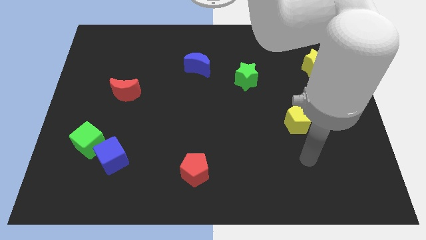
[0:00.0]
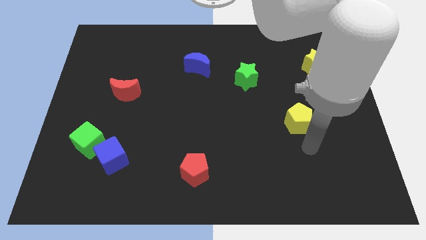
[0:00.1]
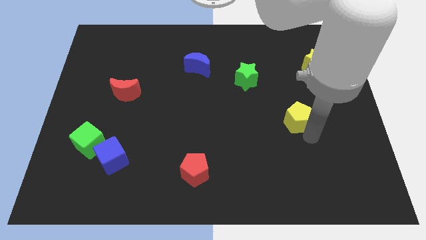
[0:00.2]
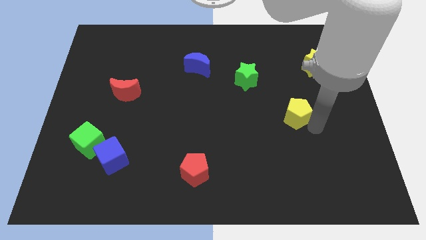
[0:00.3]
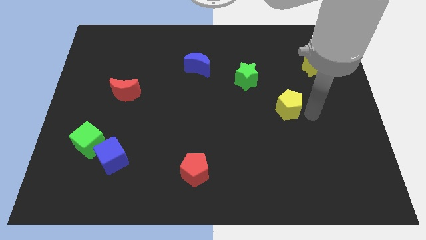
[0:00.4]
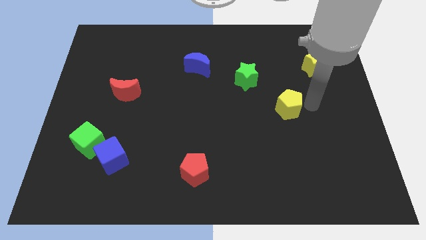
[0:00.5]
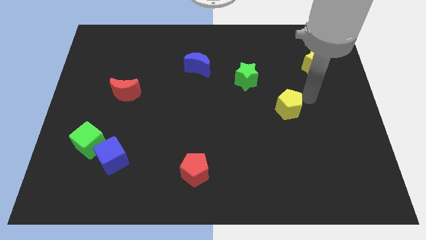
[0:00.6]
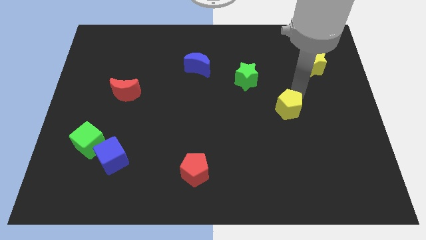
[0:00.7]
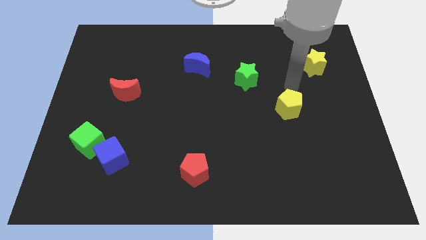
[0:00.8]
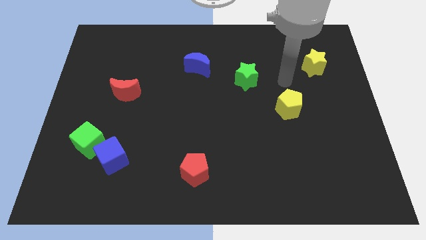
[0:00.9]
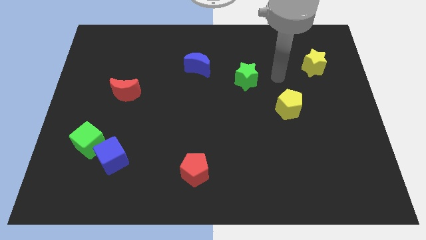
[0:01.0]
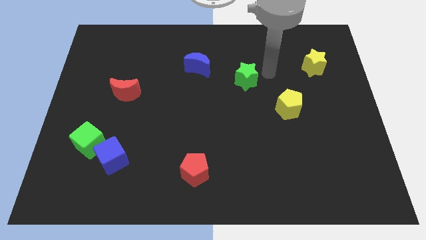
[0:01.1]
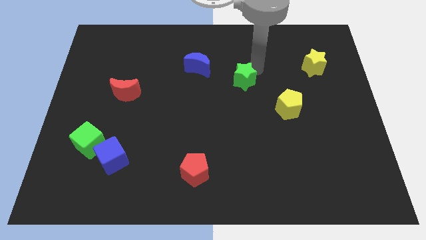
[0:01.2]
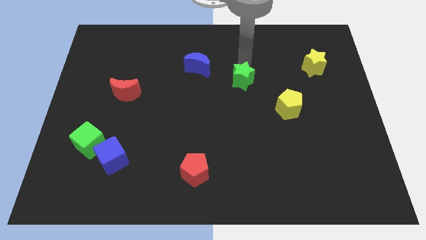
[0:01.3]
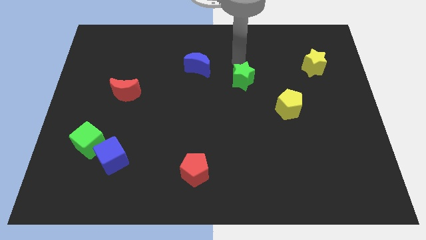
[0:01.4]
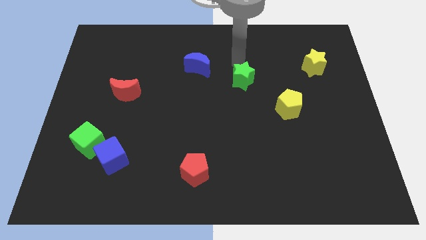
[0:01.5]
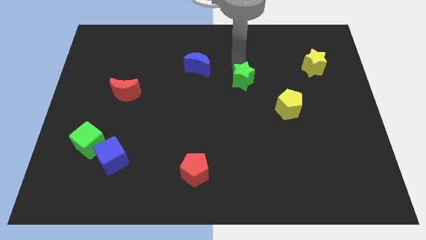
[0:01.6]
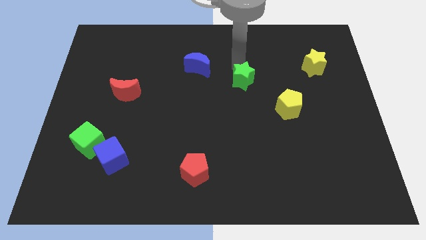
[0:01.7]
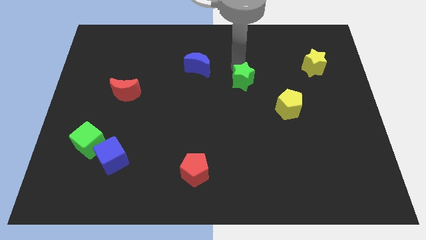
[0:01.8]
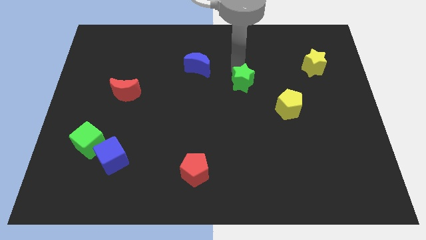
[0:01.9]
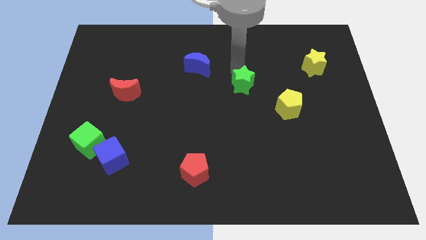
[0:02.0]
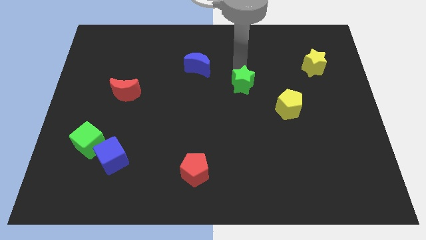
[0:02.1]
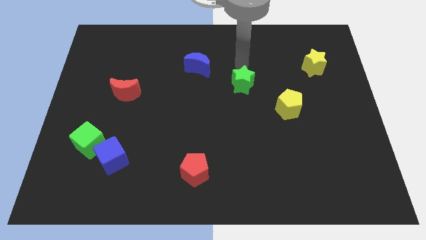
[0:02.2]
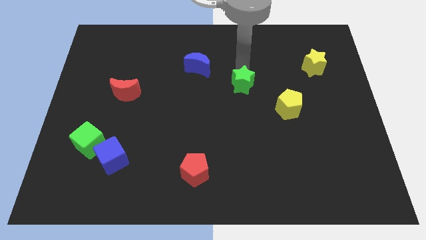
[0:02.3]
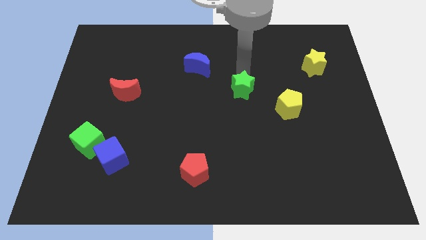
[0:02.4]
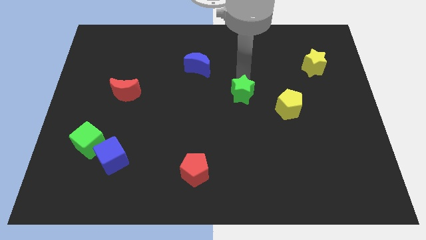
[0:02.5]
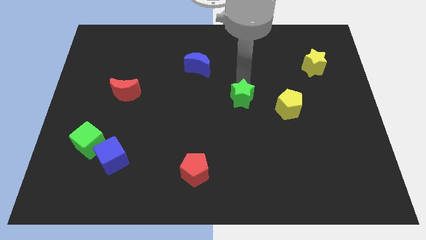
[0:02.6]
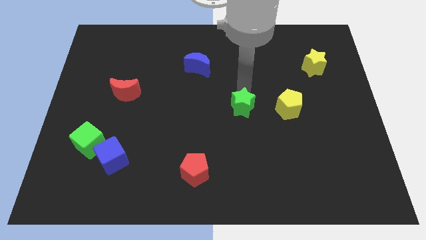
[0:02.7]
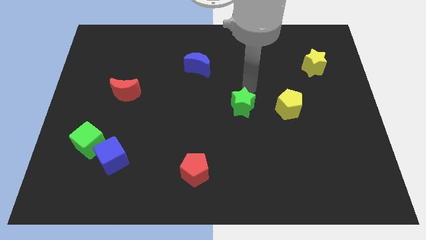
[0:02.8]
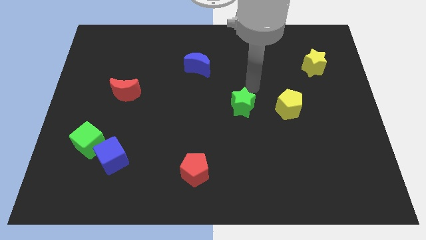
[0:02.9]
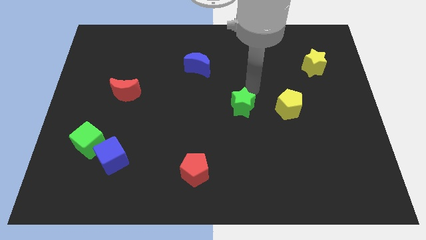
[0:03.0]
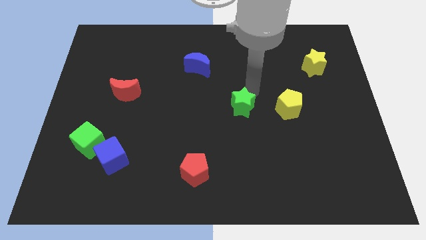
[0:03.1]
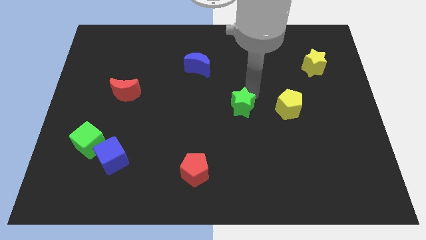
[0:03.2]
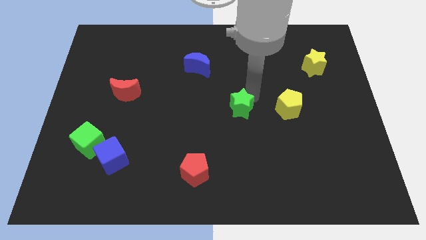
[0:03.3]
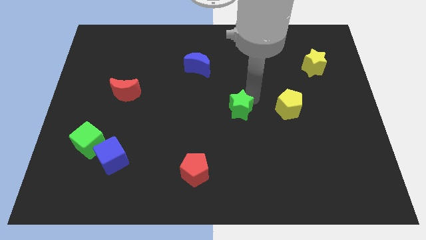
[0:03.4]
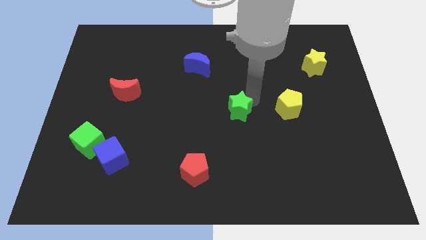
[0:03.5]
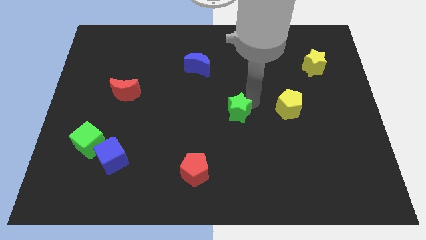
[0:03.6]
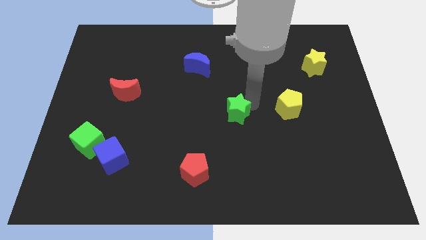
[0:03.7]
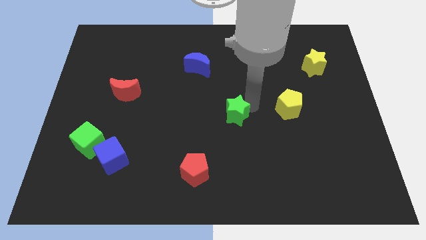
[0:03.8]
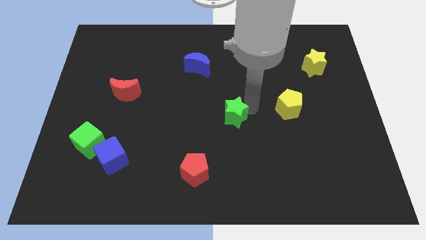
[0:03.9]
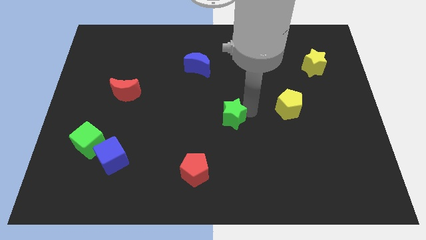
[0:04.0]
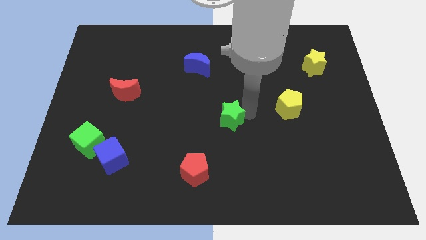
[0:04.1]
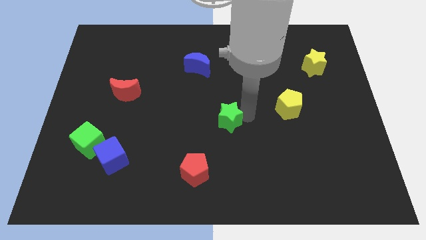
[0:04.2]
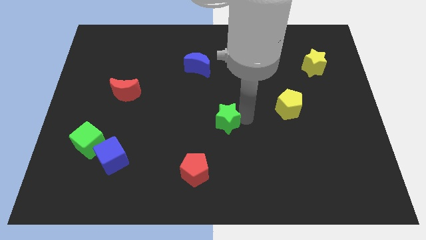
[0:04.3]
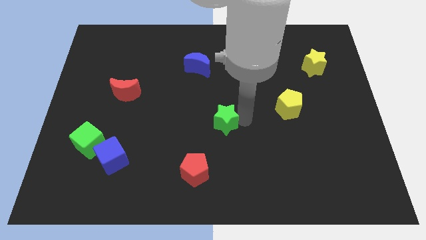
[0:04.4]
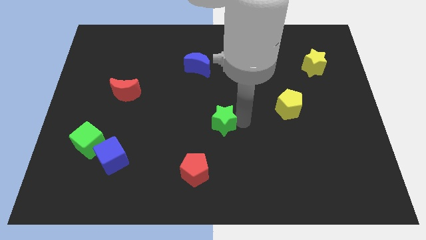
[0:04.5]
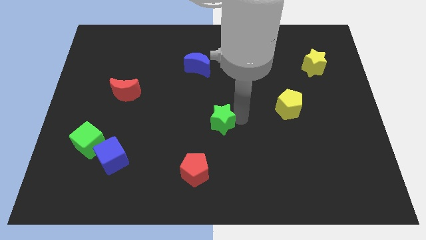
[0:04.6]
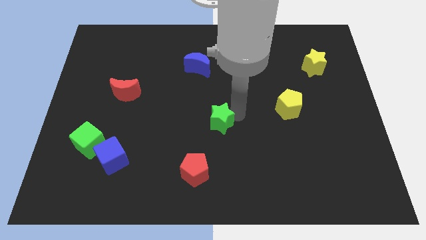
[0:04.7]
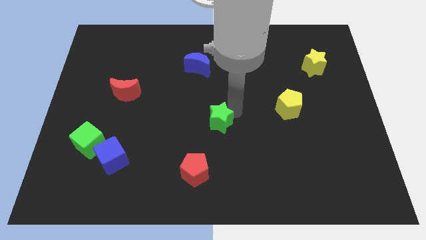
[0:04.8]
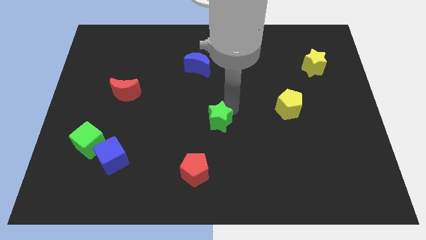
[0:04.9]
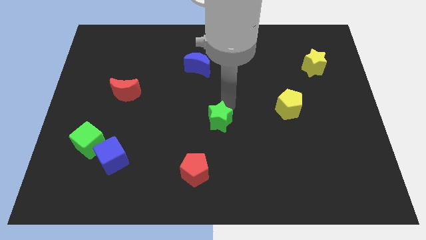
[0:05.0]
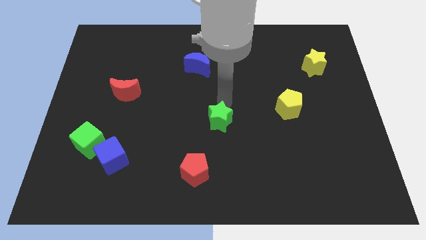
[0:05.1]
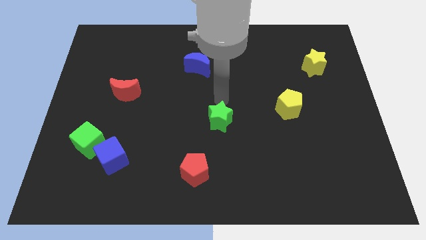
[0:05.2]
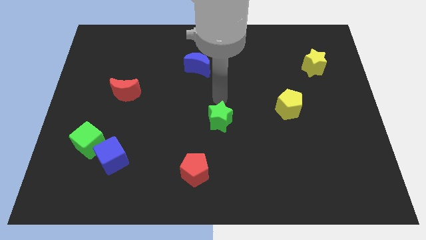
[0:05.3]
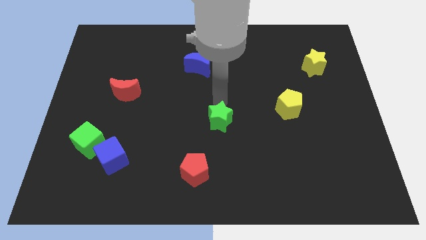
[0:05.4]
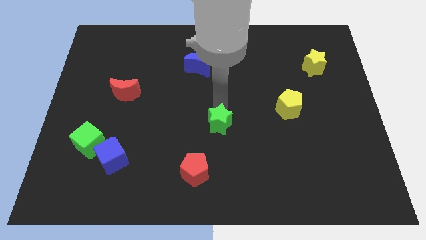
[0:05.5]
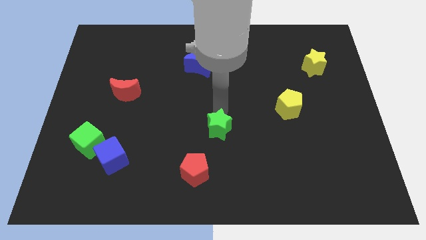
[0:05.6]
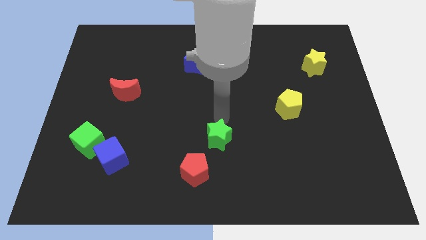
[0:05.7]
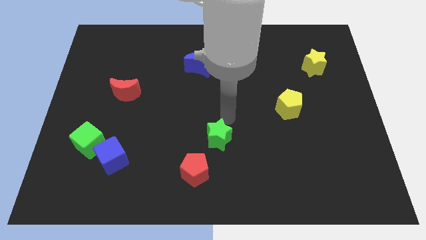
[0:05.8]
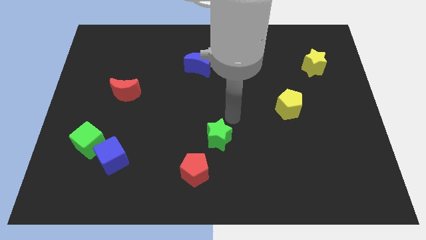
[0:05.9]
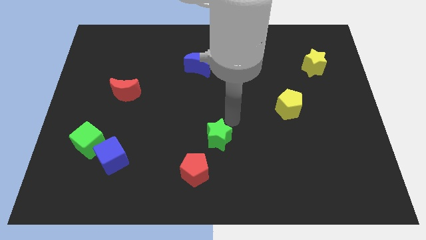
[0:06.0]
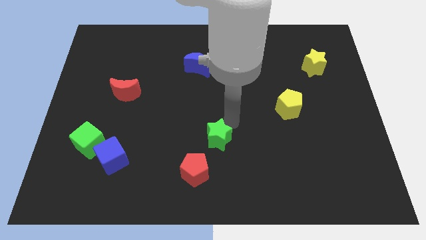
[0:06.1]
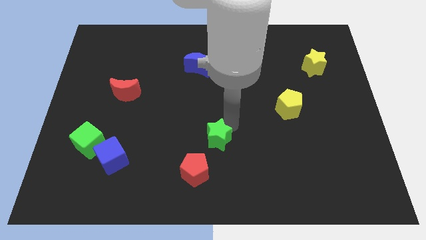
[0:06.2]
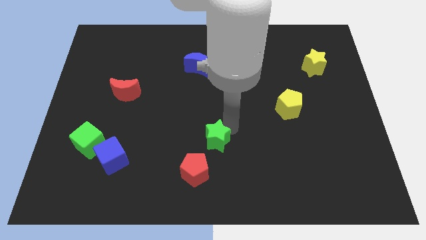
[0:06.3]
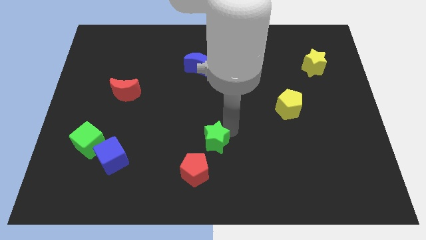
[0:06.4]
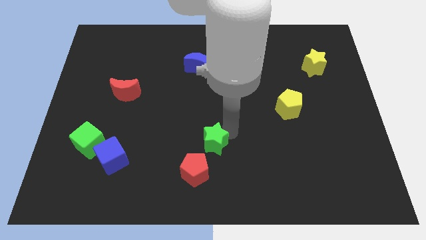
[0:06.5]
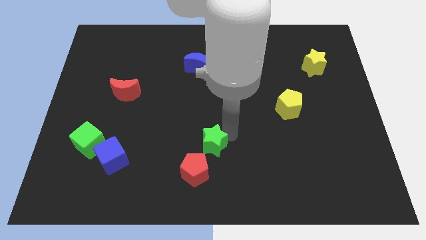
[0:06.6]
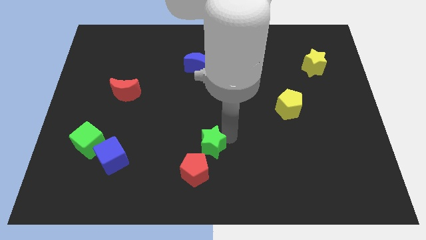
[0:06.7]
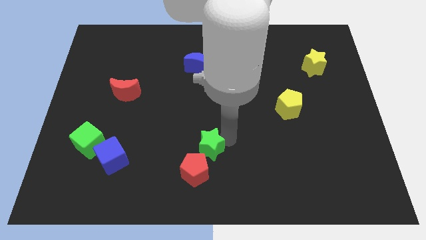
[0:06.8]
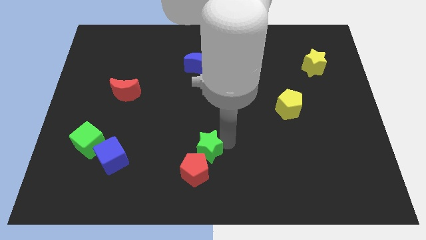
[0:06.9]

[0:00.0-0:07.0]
move the green star towards the red pentagon

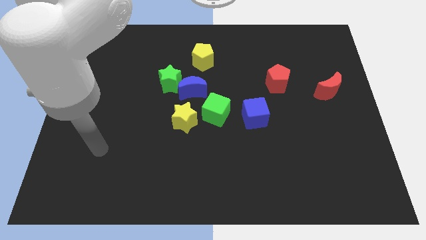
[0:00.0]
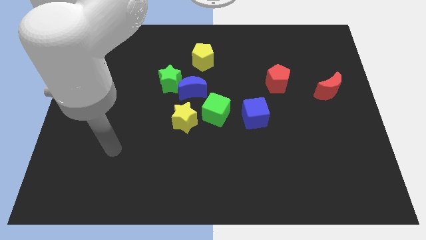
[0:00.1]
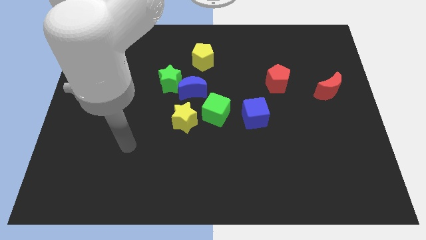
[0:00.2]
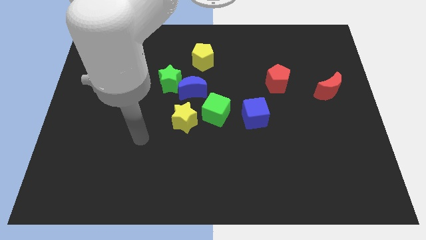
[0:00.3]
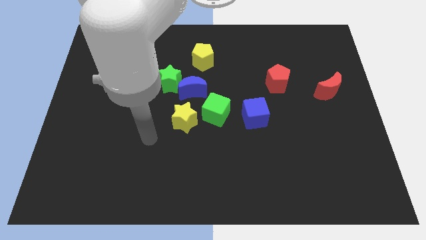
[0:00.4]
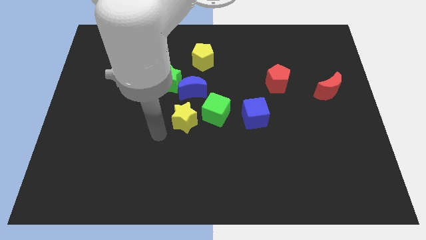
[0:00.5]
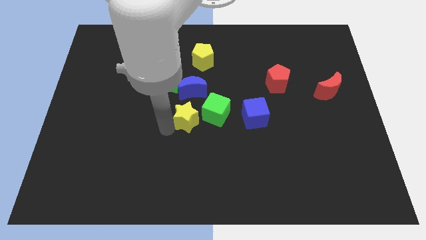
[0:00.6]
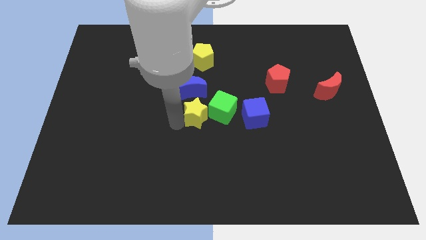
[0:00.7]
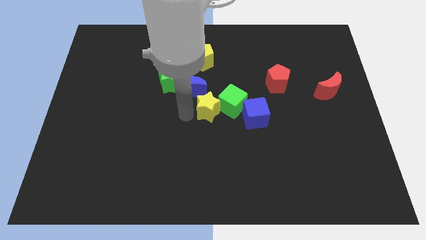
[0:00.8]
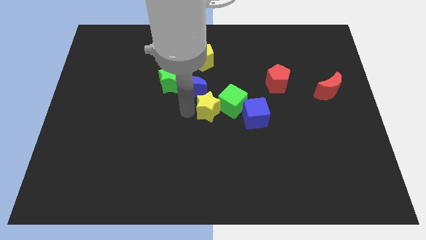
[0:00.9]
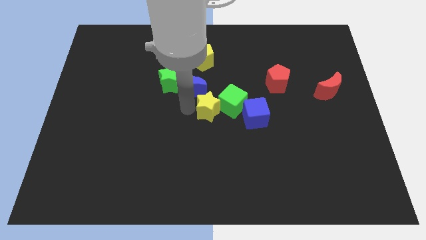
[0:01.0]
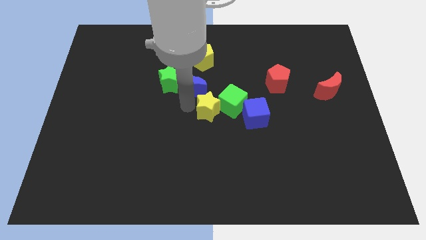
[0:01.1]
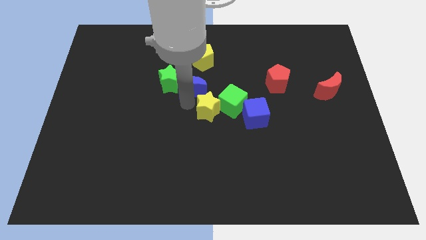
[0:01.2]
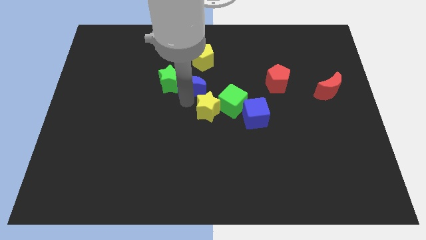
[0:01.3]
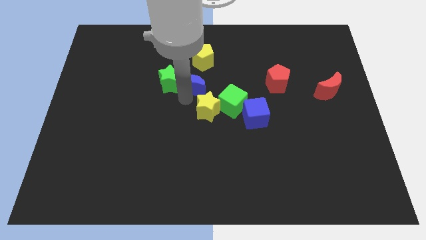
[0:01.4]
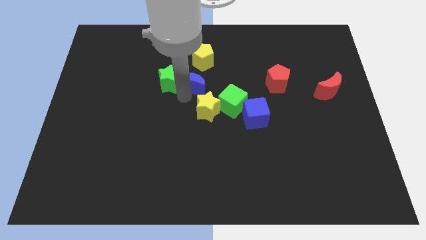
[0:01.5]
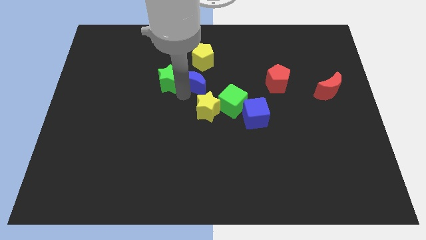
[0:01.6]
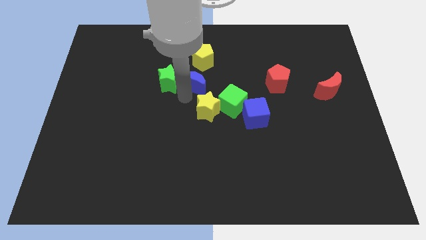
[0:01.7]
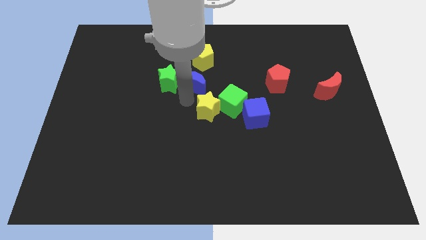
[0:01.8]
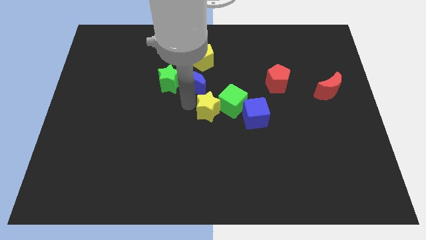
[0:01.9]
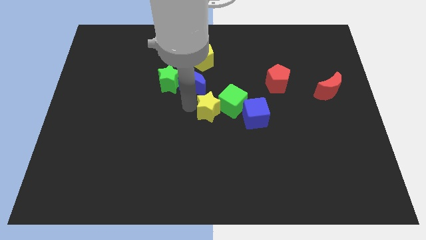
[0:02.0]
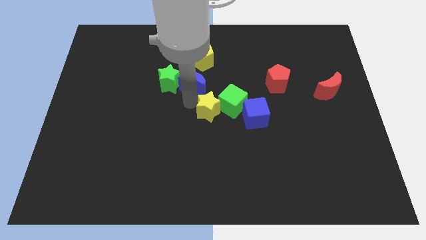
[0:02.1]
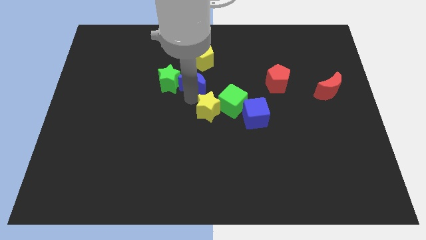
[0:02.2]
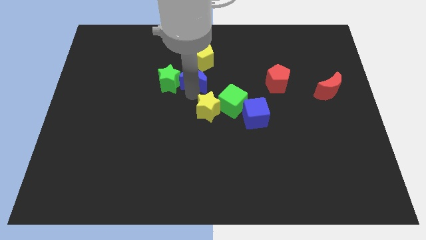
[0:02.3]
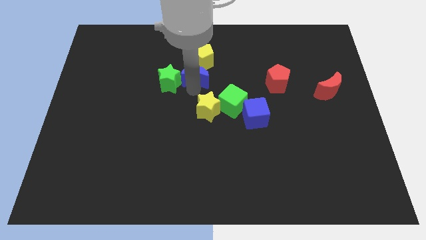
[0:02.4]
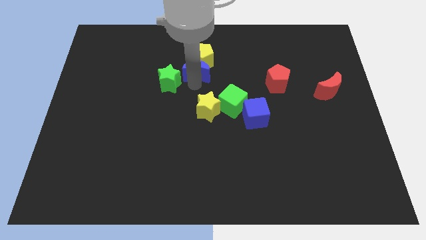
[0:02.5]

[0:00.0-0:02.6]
put the blue moon towards the yellow pentagon
